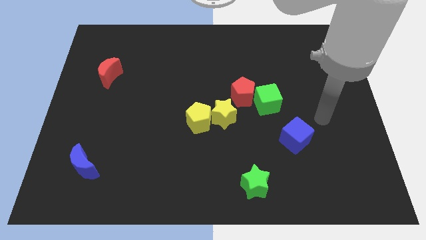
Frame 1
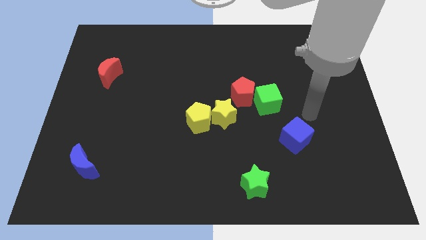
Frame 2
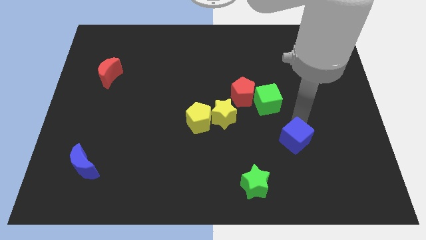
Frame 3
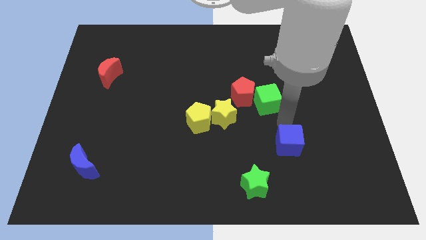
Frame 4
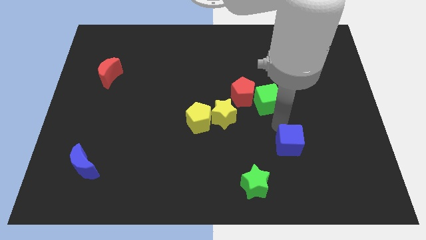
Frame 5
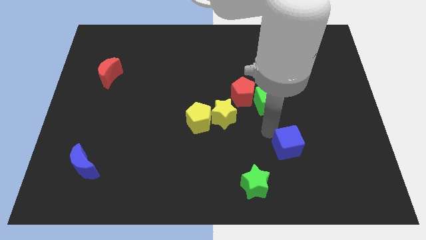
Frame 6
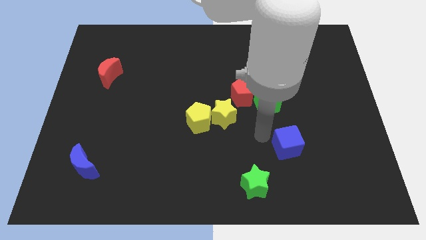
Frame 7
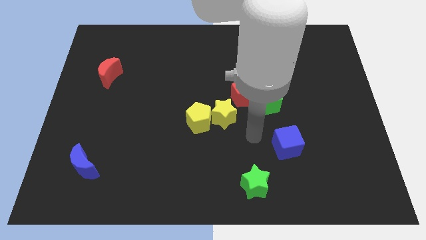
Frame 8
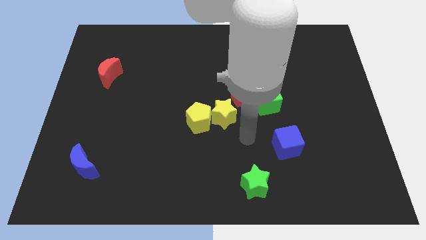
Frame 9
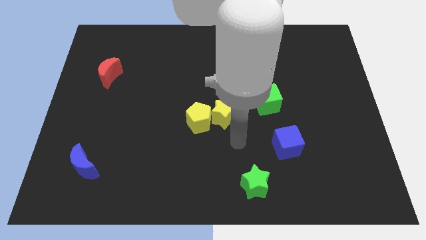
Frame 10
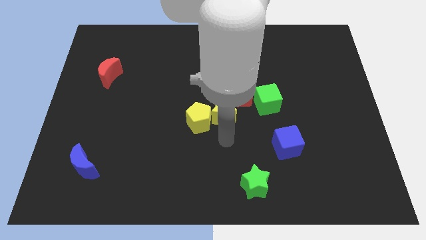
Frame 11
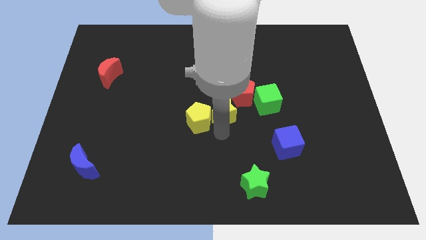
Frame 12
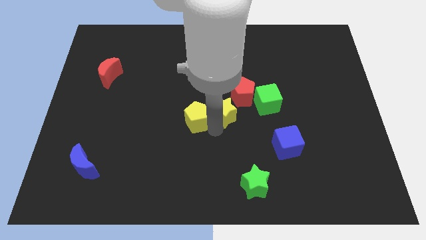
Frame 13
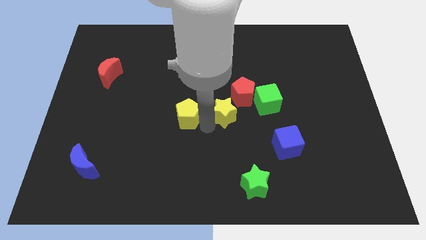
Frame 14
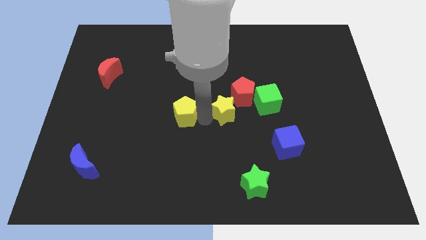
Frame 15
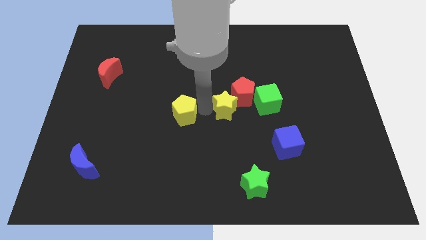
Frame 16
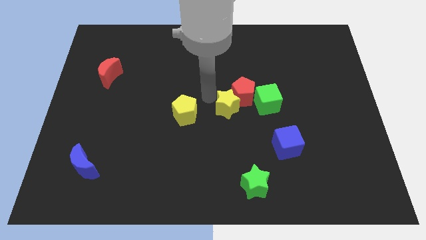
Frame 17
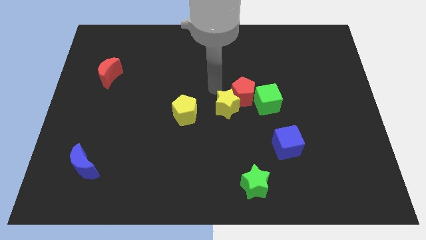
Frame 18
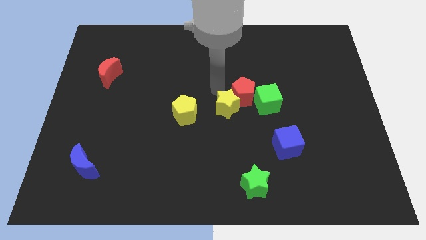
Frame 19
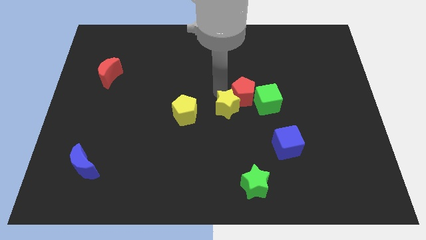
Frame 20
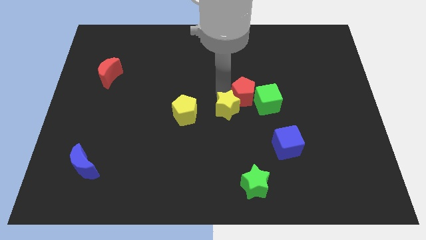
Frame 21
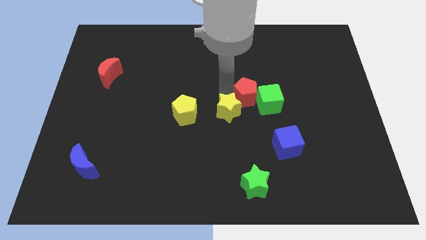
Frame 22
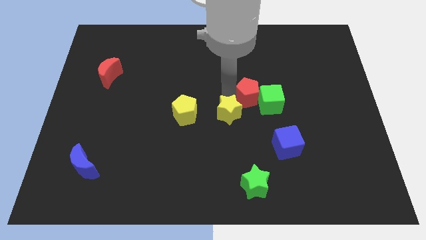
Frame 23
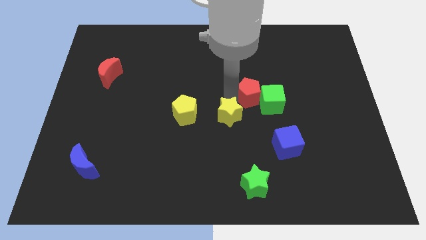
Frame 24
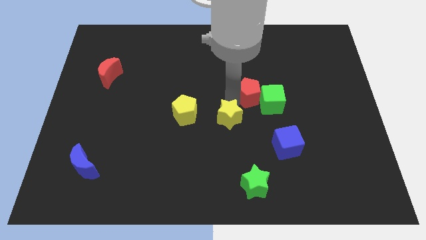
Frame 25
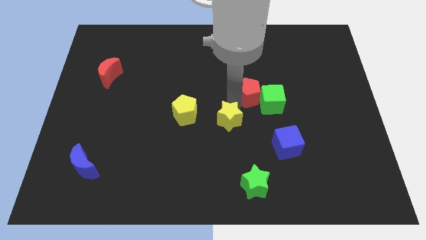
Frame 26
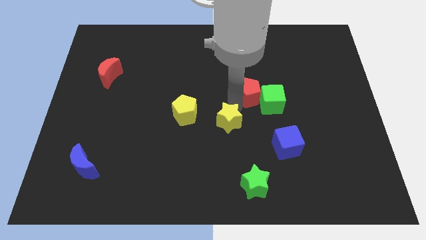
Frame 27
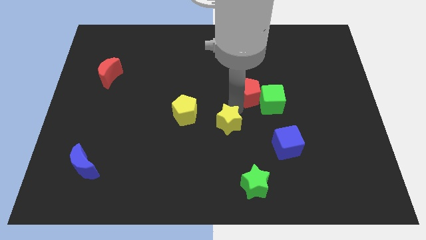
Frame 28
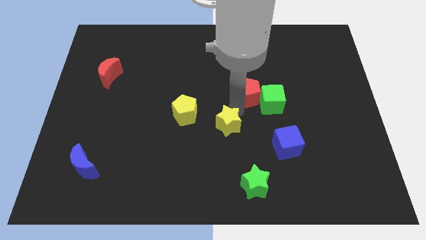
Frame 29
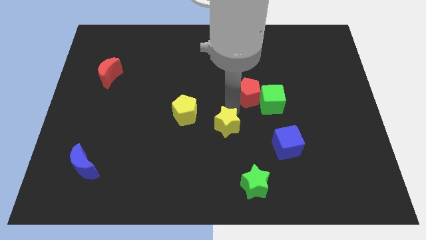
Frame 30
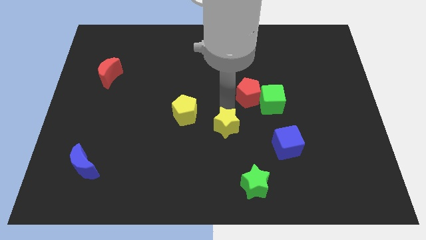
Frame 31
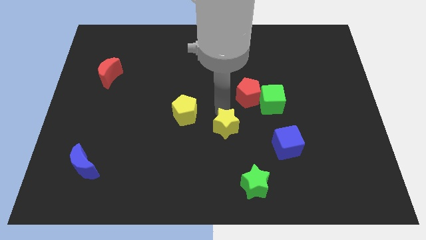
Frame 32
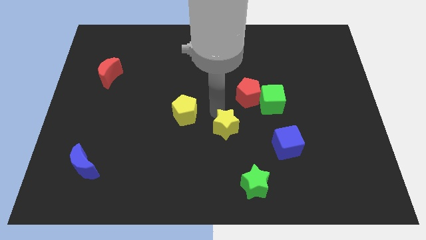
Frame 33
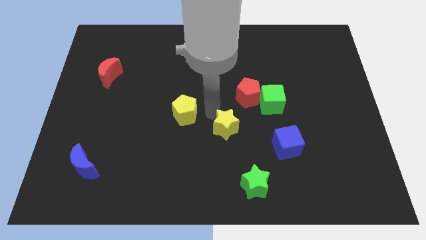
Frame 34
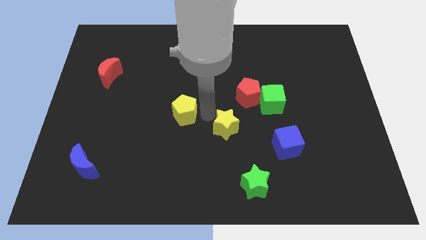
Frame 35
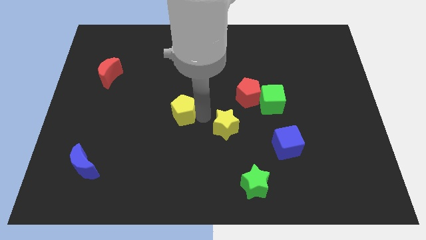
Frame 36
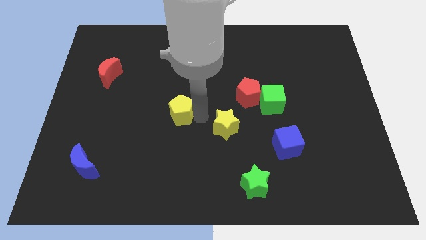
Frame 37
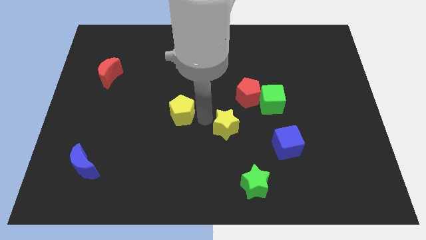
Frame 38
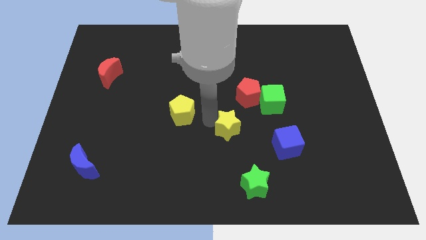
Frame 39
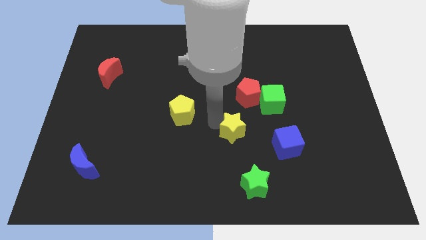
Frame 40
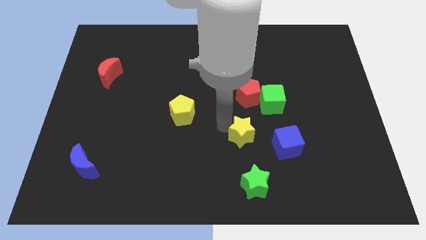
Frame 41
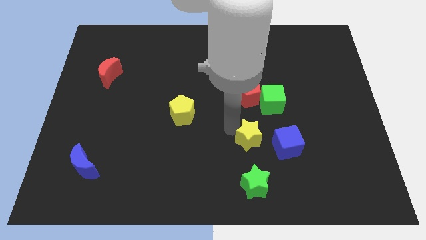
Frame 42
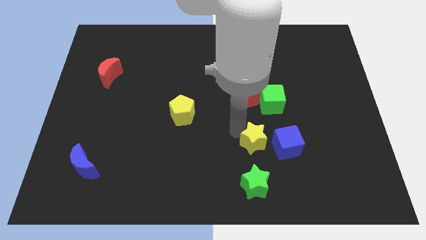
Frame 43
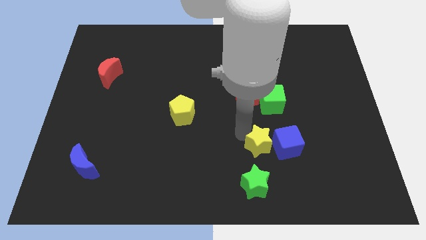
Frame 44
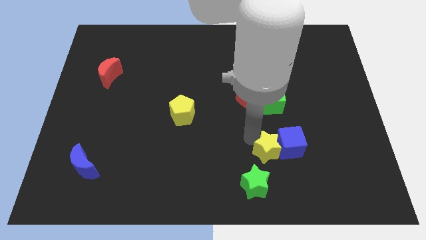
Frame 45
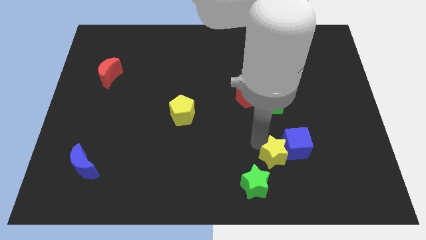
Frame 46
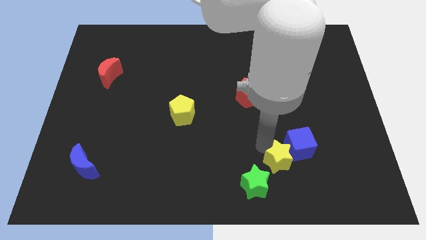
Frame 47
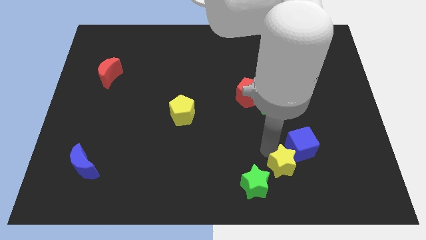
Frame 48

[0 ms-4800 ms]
push the yellow star to the right side of the green star

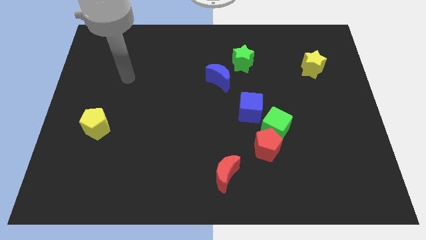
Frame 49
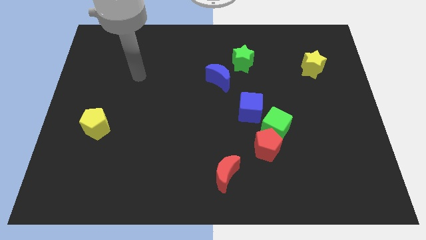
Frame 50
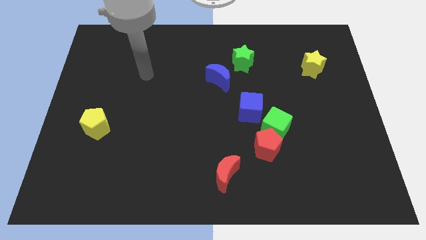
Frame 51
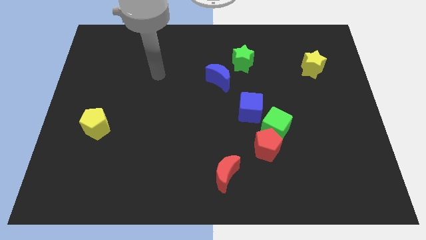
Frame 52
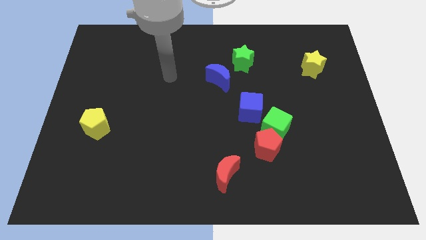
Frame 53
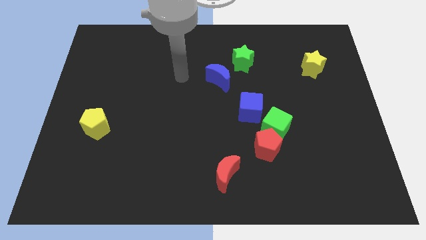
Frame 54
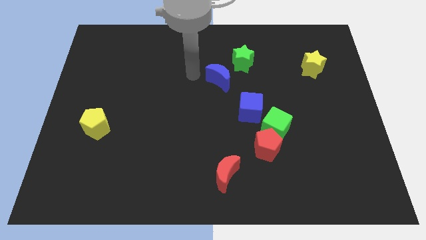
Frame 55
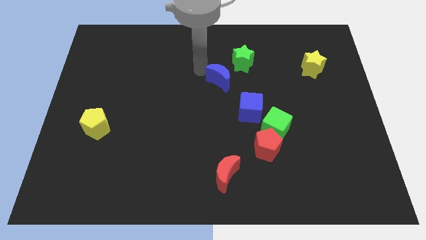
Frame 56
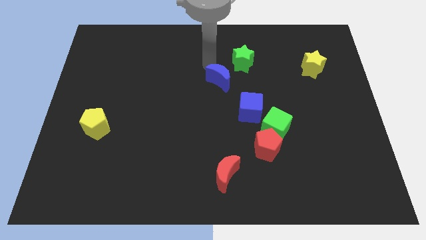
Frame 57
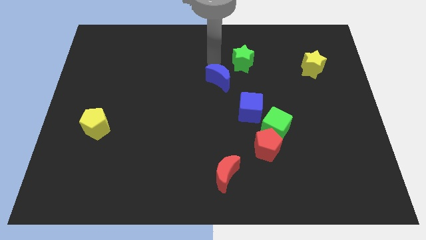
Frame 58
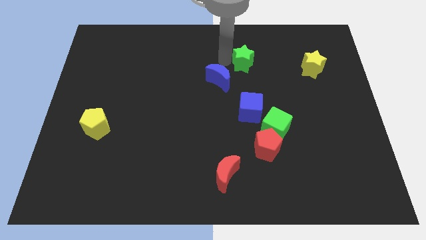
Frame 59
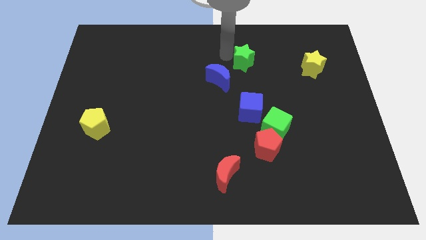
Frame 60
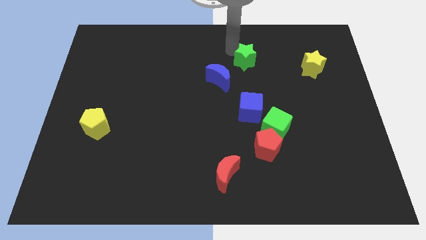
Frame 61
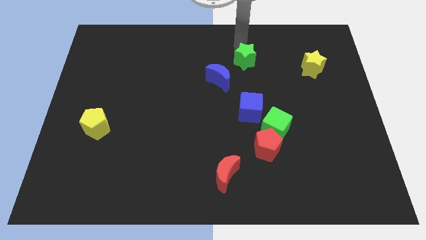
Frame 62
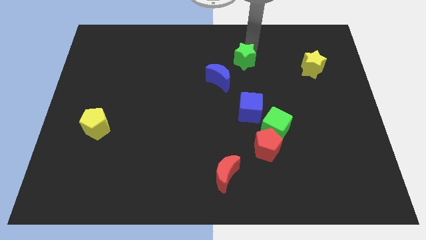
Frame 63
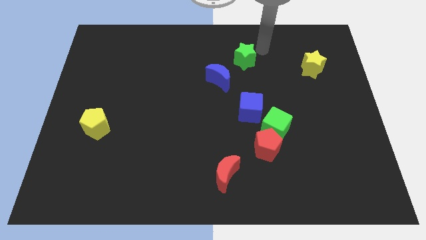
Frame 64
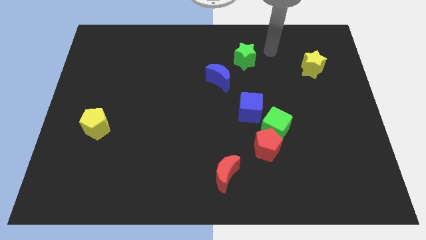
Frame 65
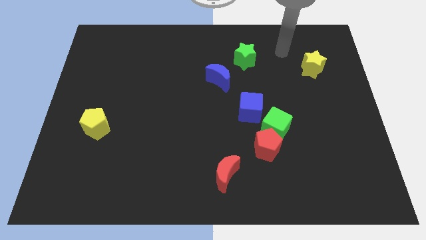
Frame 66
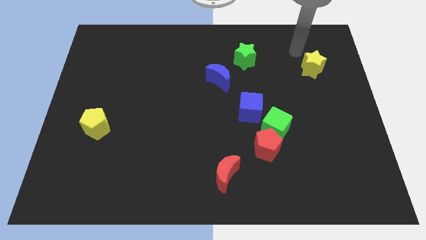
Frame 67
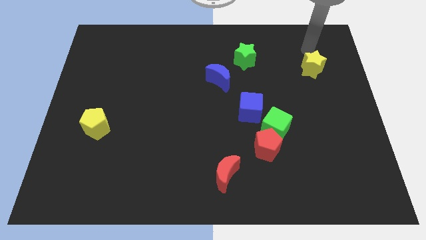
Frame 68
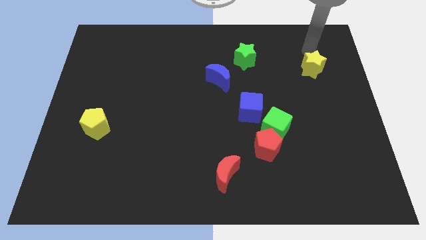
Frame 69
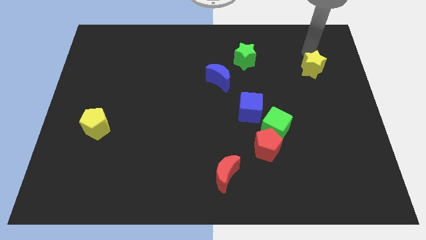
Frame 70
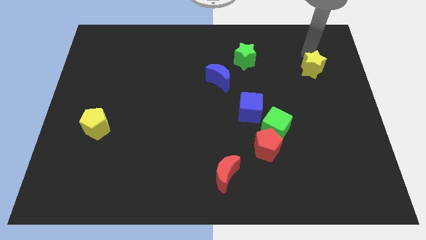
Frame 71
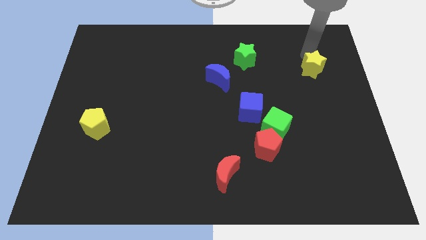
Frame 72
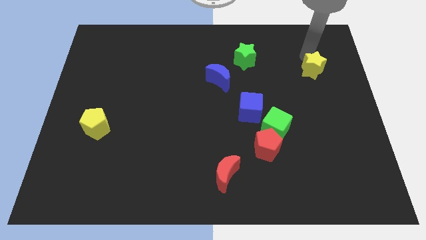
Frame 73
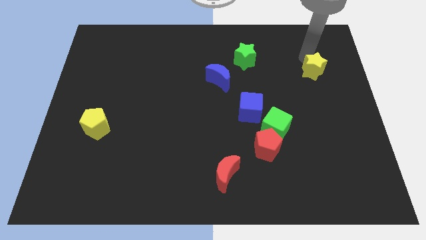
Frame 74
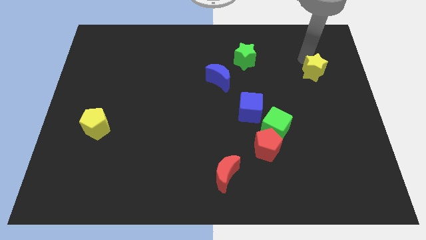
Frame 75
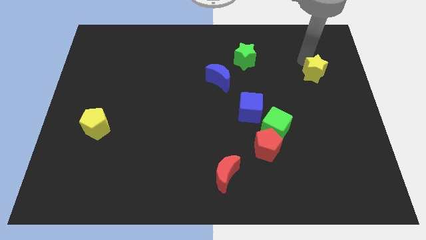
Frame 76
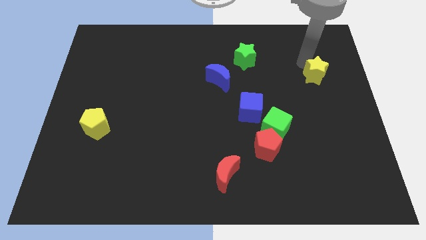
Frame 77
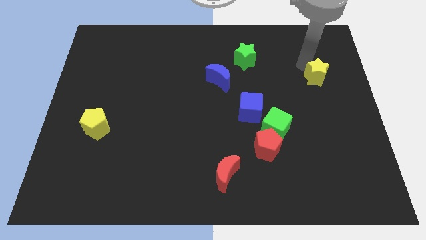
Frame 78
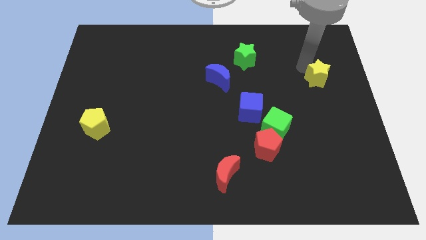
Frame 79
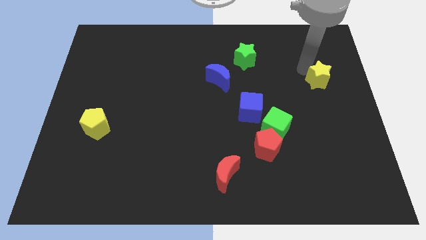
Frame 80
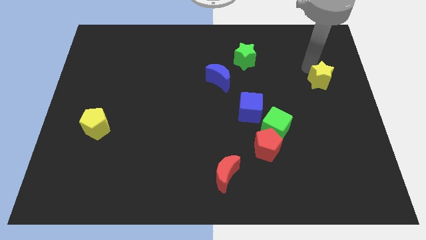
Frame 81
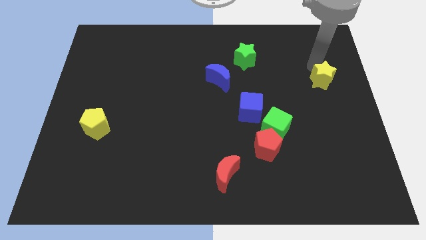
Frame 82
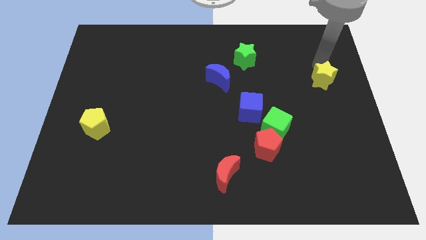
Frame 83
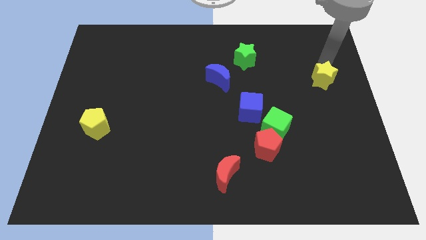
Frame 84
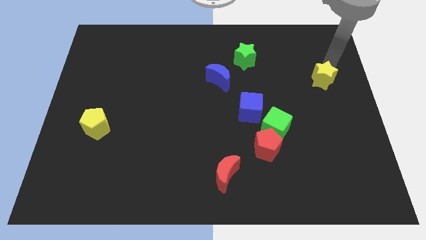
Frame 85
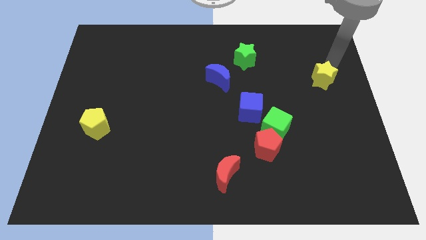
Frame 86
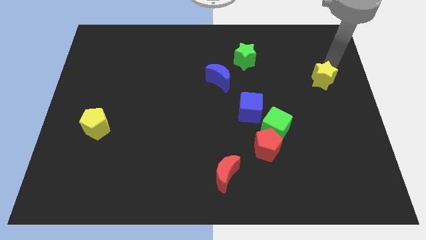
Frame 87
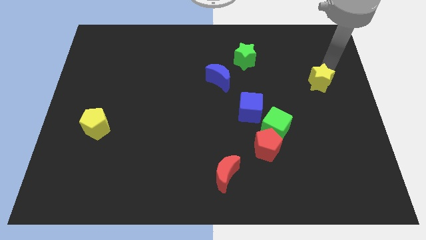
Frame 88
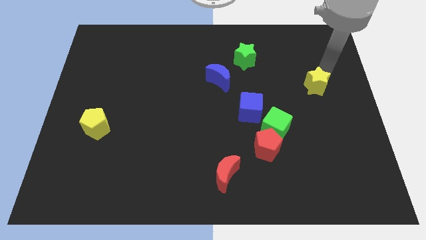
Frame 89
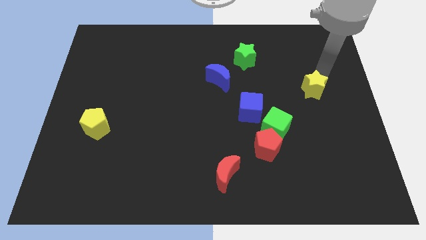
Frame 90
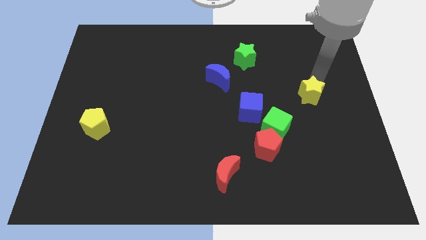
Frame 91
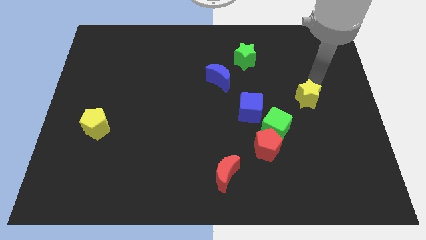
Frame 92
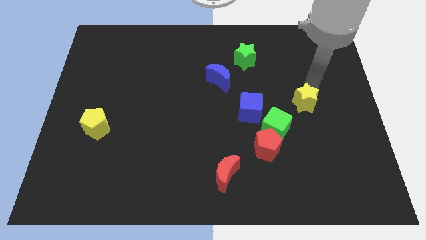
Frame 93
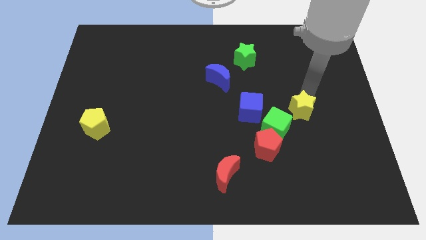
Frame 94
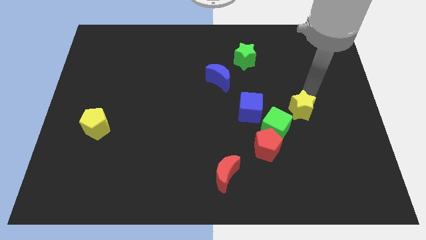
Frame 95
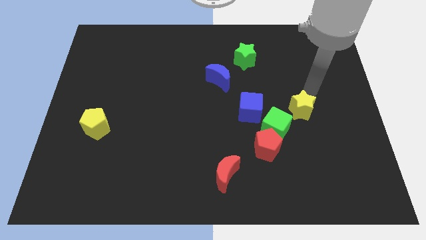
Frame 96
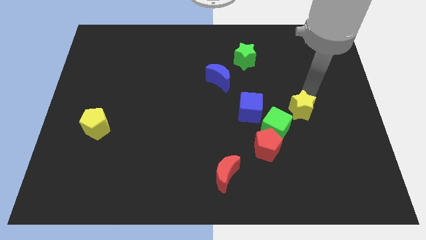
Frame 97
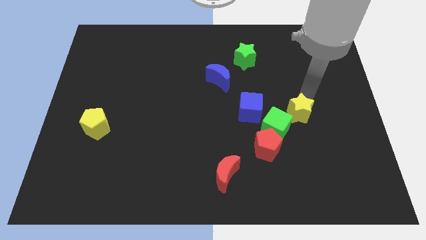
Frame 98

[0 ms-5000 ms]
push the yellow star to the top right of the red pentagon
